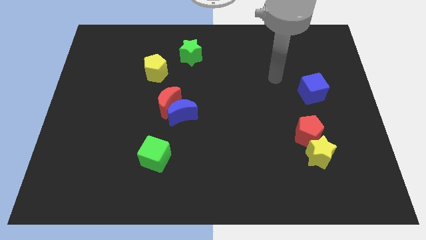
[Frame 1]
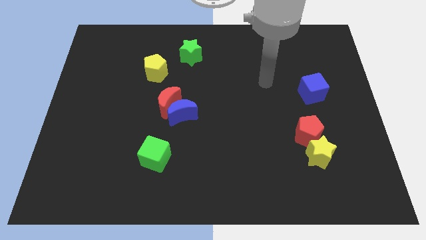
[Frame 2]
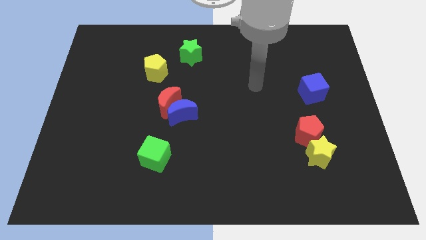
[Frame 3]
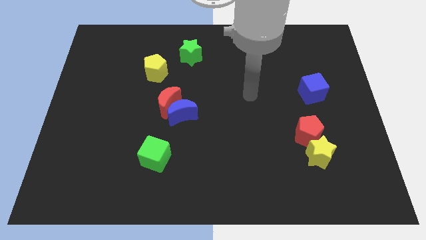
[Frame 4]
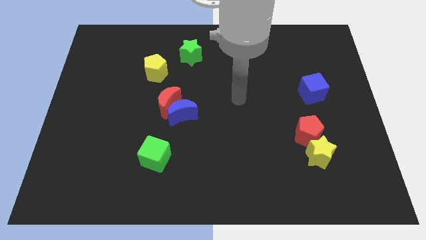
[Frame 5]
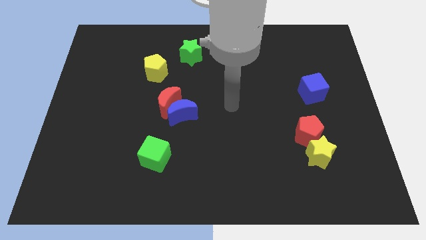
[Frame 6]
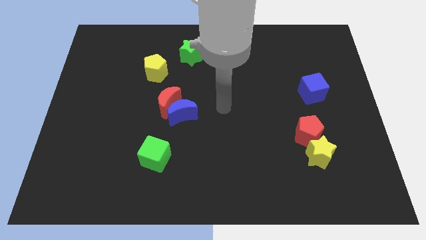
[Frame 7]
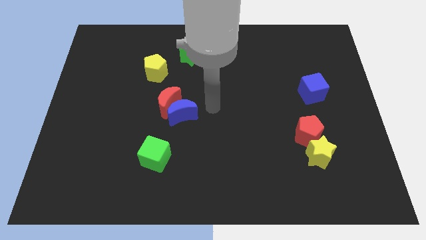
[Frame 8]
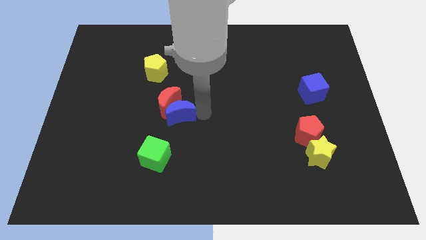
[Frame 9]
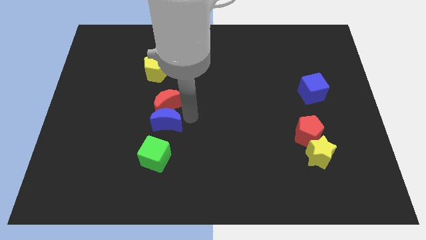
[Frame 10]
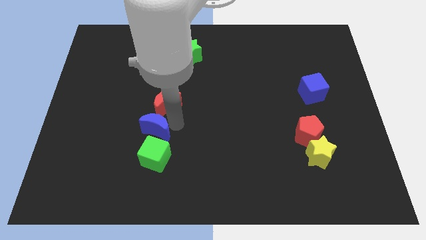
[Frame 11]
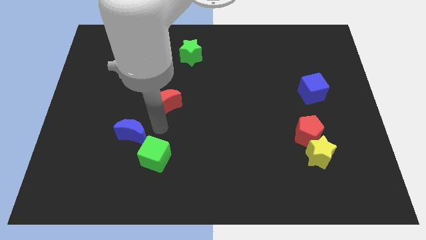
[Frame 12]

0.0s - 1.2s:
pull the red moon apart from the blue moon

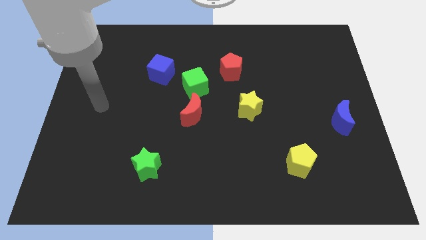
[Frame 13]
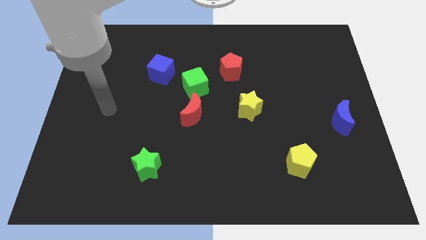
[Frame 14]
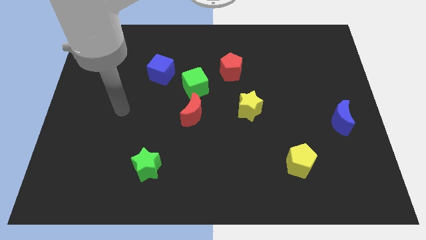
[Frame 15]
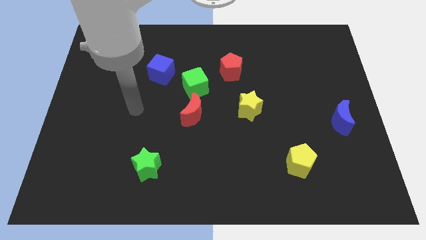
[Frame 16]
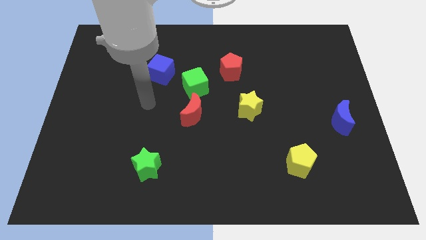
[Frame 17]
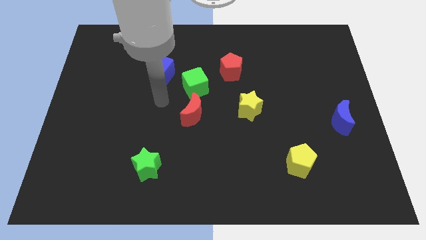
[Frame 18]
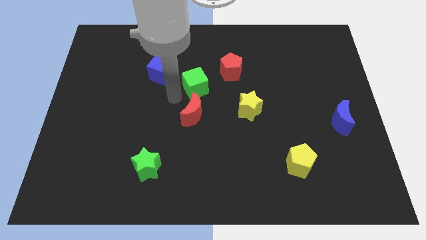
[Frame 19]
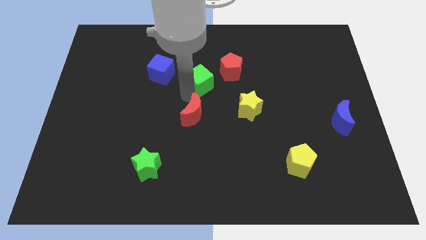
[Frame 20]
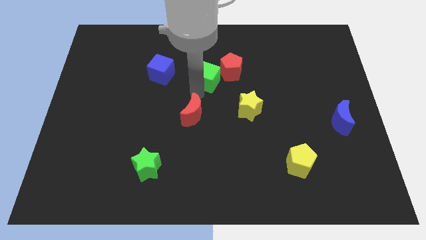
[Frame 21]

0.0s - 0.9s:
move the red moon away from the green cube

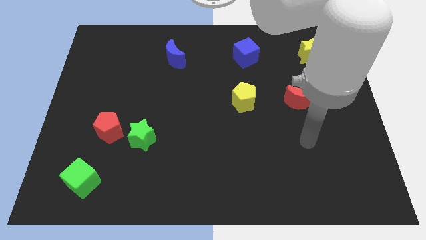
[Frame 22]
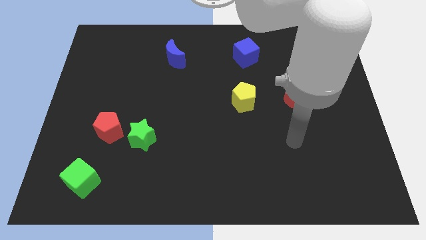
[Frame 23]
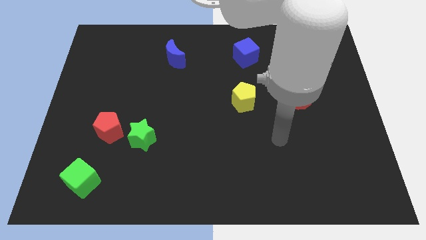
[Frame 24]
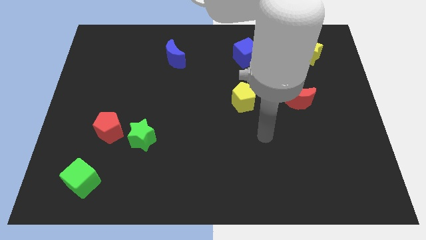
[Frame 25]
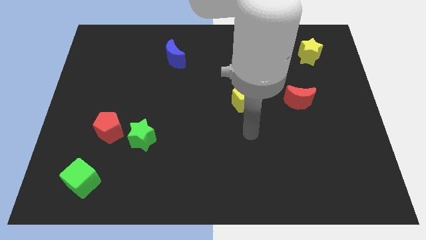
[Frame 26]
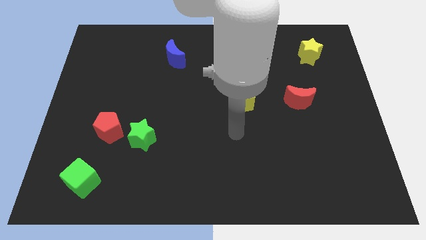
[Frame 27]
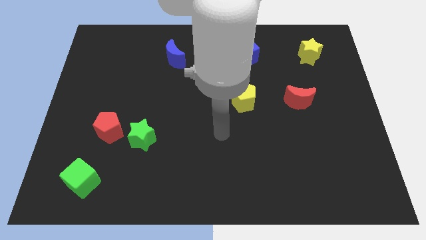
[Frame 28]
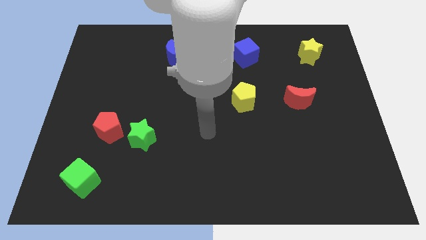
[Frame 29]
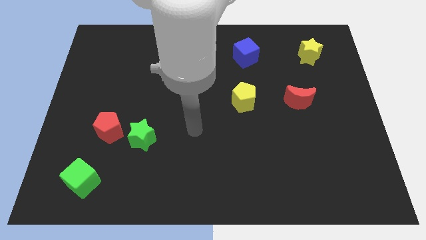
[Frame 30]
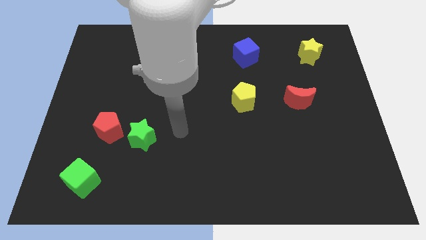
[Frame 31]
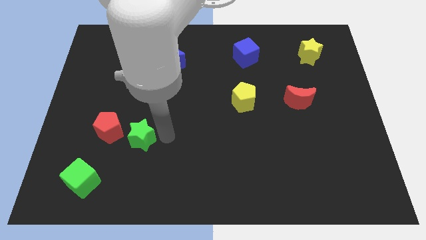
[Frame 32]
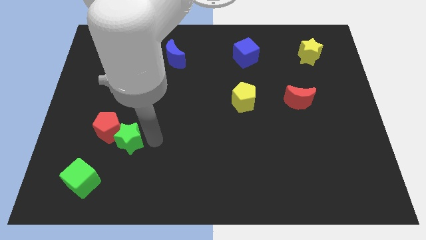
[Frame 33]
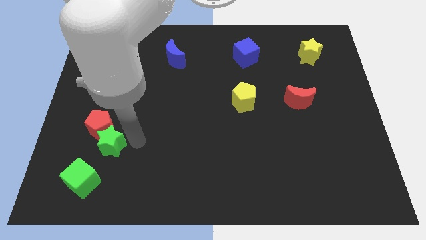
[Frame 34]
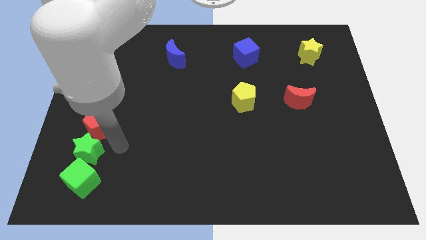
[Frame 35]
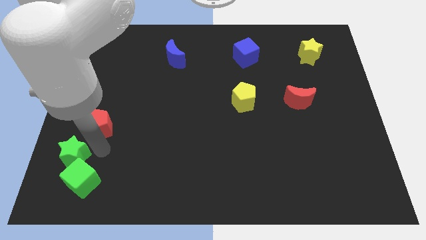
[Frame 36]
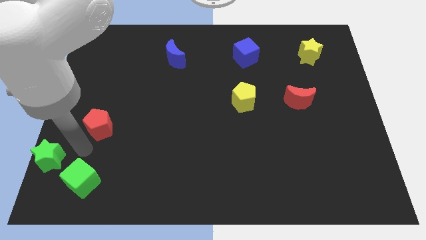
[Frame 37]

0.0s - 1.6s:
move the red pentagon away from the green star

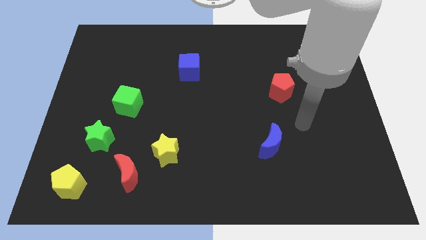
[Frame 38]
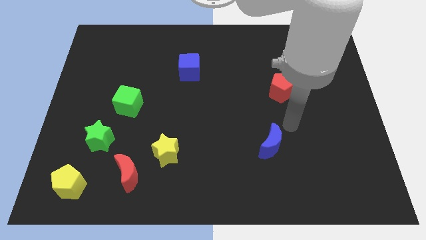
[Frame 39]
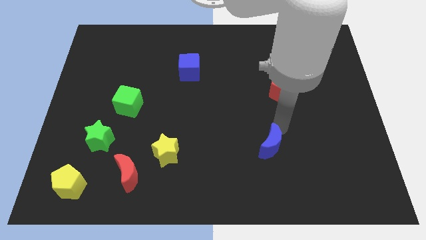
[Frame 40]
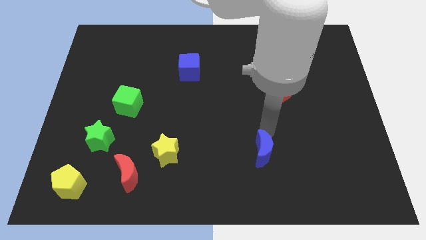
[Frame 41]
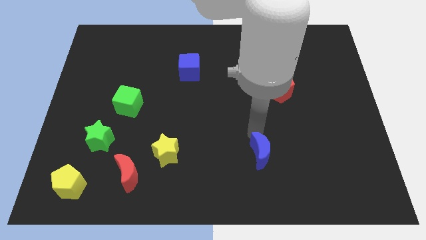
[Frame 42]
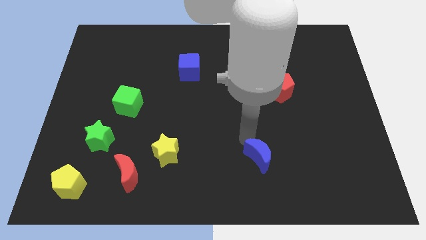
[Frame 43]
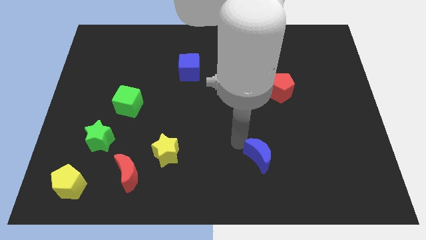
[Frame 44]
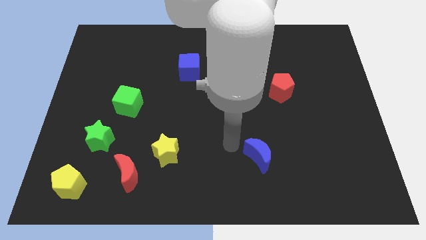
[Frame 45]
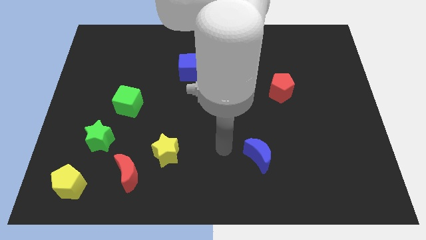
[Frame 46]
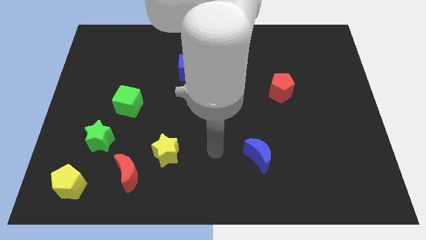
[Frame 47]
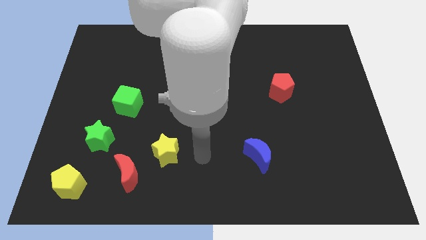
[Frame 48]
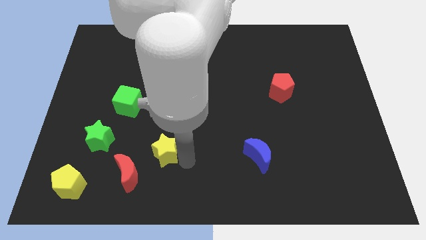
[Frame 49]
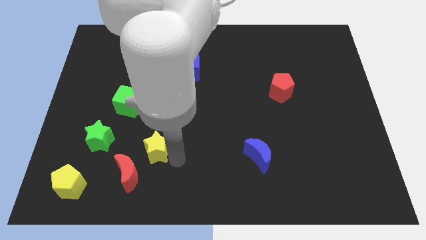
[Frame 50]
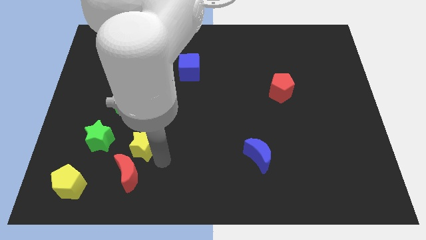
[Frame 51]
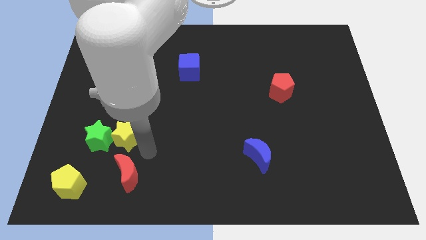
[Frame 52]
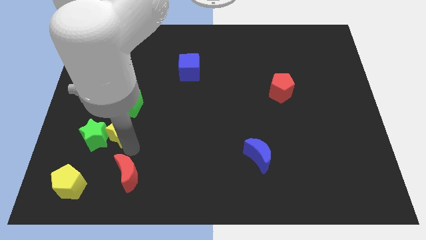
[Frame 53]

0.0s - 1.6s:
move the red moon away from the yellow star

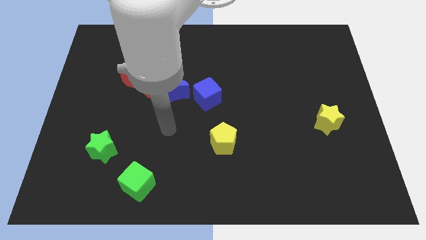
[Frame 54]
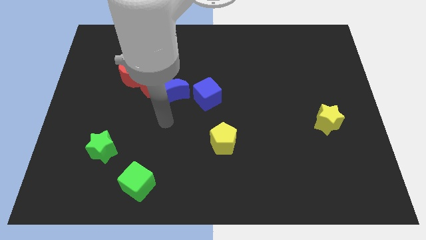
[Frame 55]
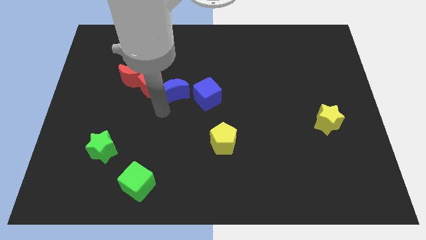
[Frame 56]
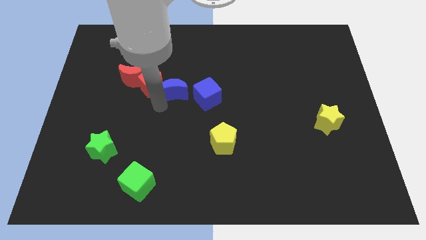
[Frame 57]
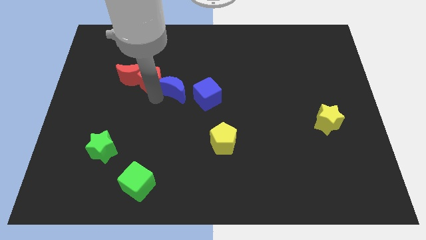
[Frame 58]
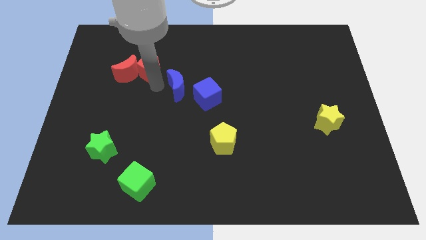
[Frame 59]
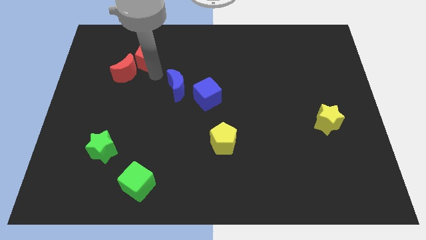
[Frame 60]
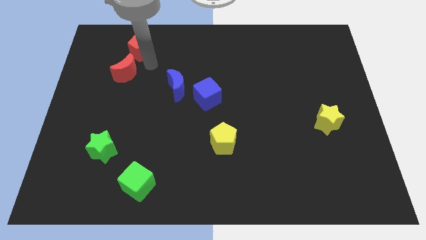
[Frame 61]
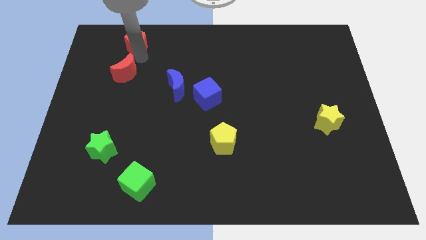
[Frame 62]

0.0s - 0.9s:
separate the red moon from the red pentagon

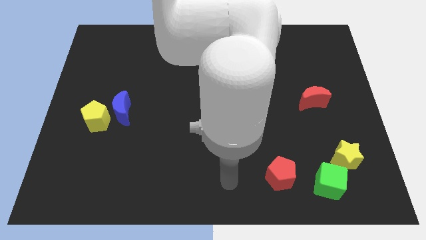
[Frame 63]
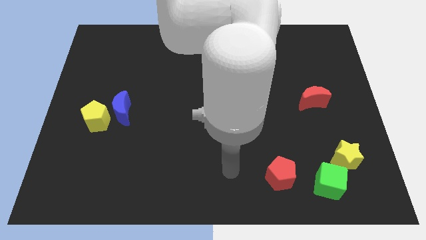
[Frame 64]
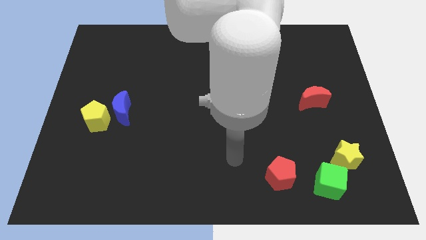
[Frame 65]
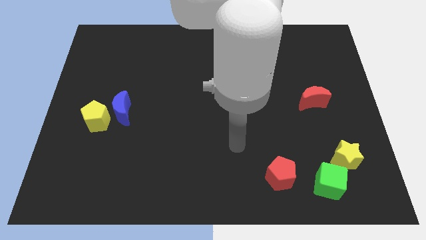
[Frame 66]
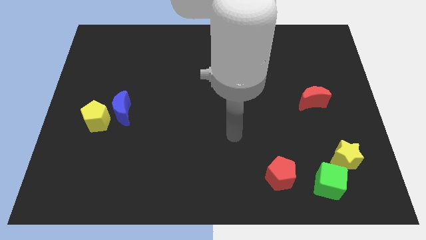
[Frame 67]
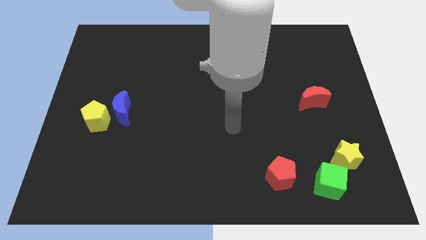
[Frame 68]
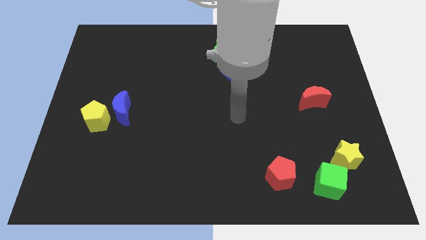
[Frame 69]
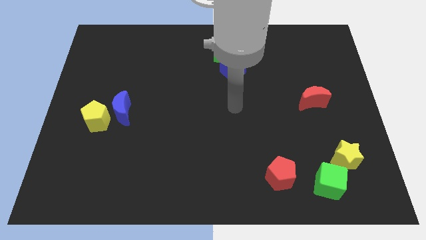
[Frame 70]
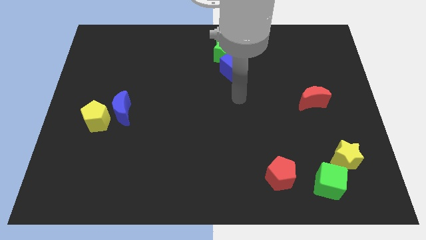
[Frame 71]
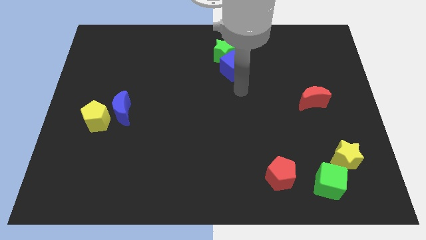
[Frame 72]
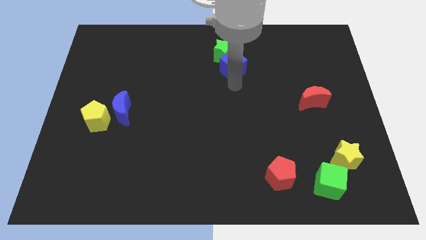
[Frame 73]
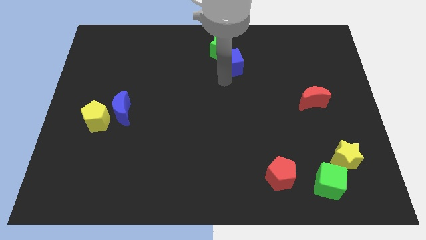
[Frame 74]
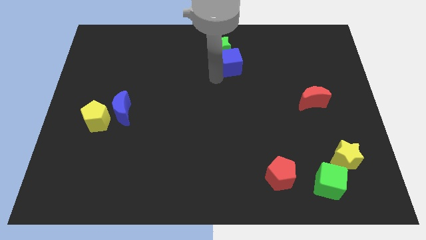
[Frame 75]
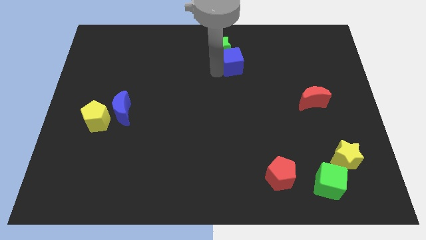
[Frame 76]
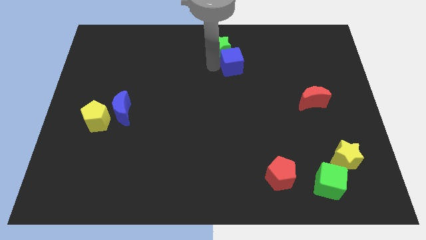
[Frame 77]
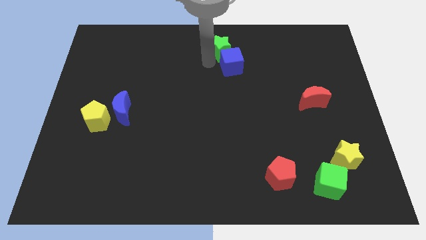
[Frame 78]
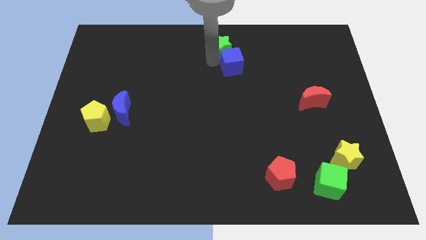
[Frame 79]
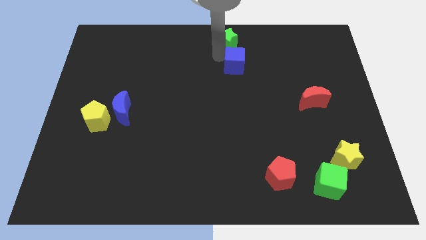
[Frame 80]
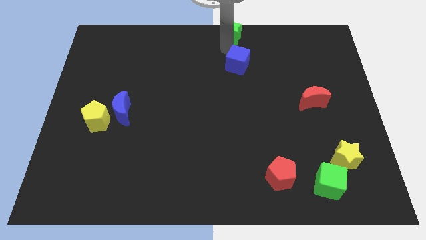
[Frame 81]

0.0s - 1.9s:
pull the blue cube apart from the green star

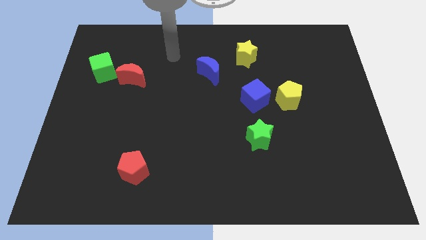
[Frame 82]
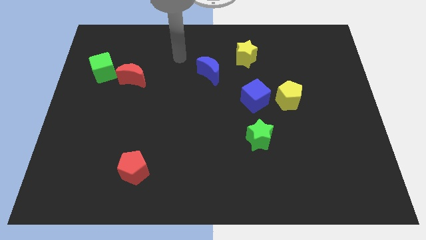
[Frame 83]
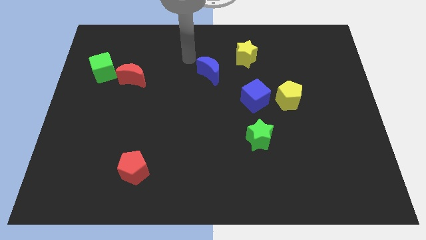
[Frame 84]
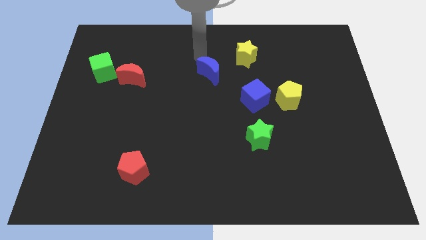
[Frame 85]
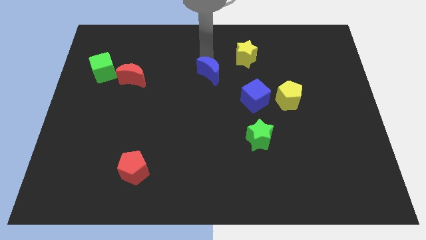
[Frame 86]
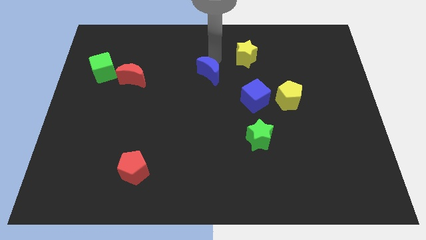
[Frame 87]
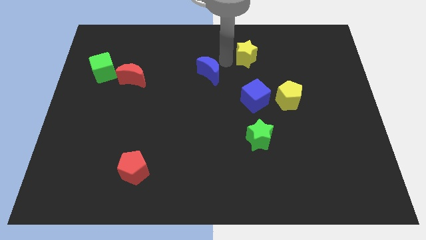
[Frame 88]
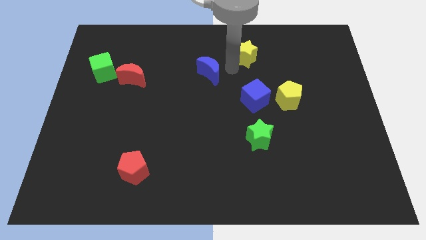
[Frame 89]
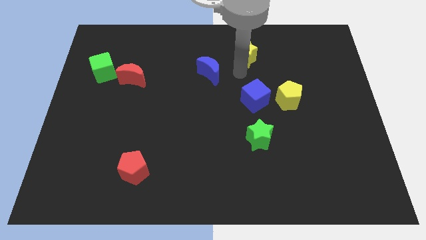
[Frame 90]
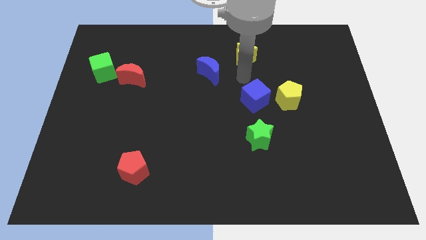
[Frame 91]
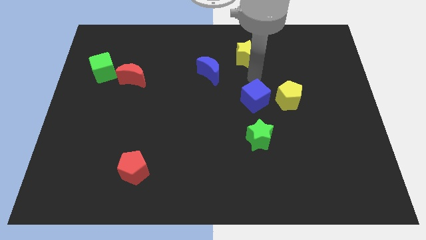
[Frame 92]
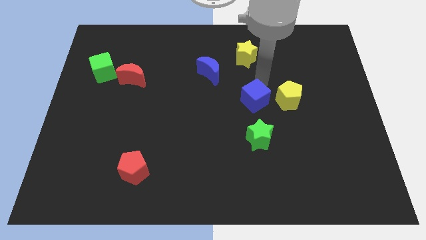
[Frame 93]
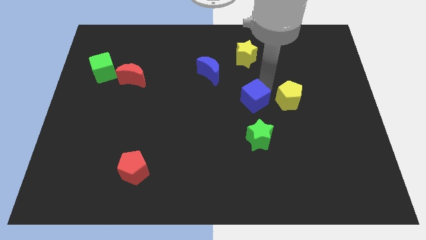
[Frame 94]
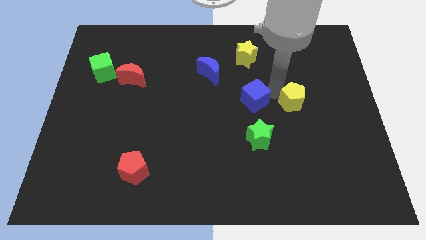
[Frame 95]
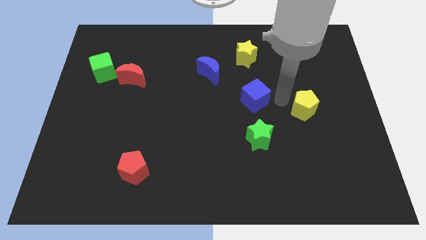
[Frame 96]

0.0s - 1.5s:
move the blue cube away from the yellow pentagon
